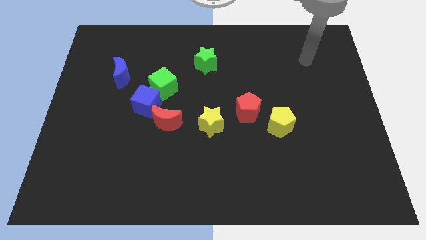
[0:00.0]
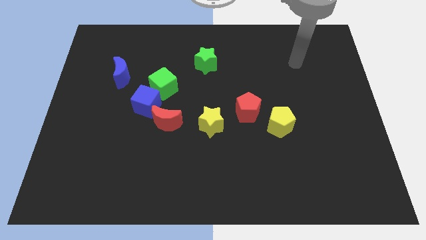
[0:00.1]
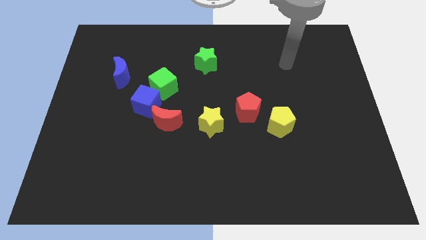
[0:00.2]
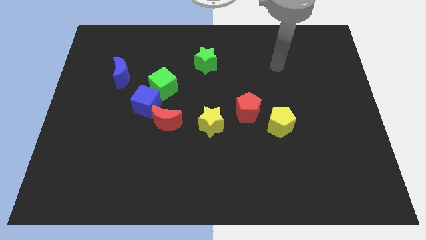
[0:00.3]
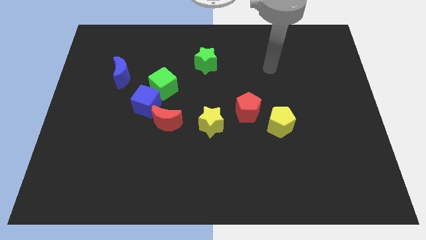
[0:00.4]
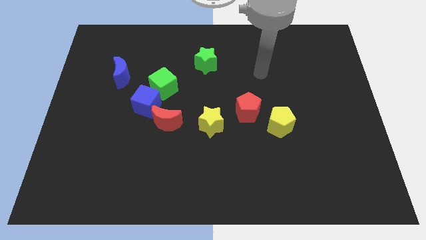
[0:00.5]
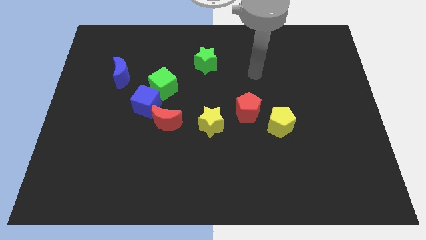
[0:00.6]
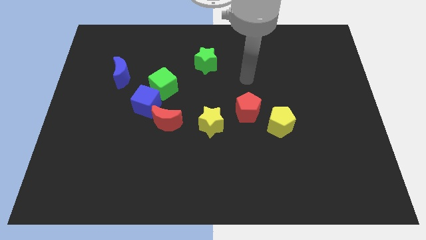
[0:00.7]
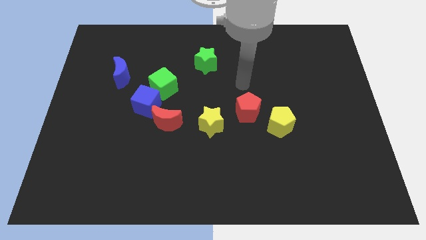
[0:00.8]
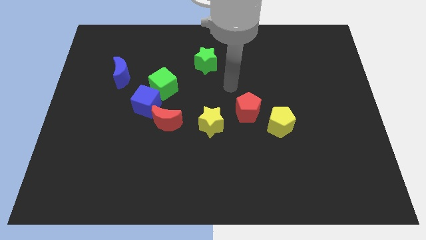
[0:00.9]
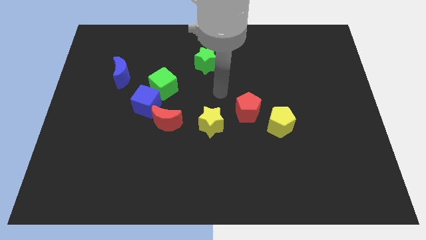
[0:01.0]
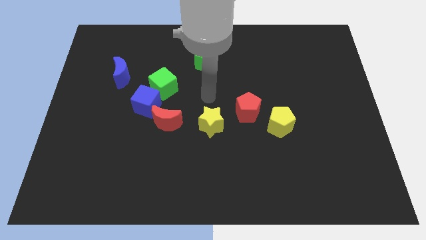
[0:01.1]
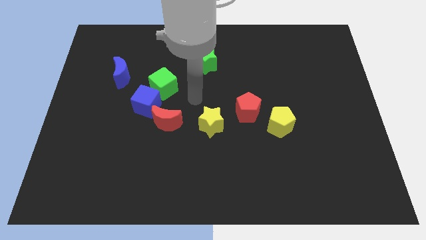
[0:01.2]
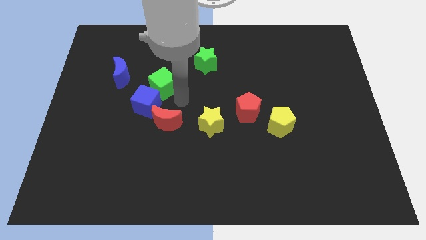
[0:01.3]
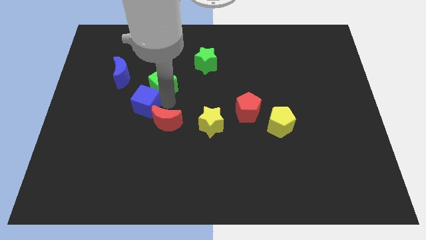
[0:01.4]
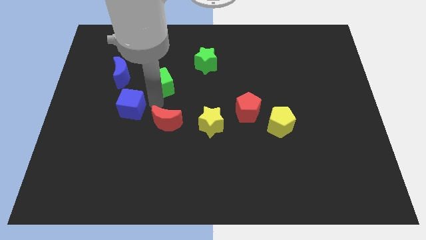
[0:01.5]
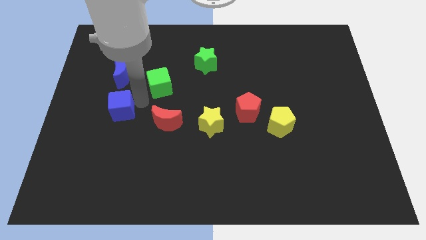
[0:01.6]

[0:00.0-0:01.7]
move the green cube away from the blue cube

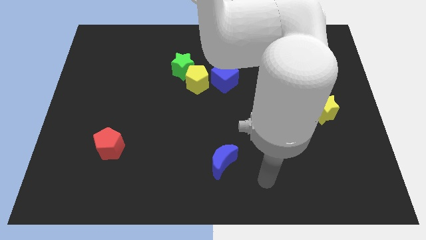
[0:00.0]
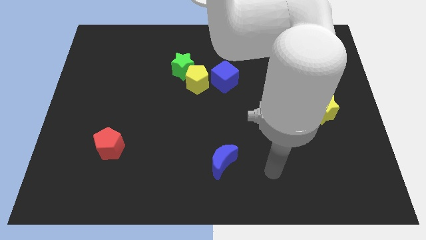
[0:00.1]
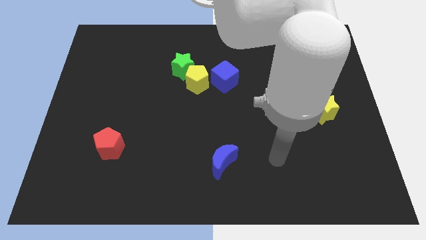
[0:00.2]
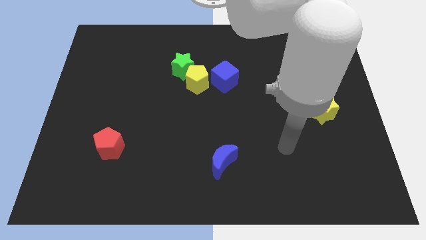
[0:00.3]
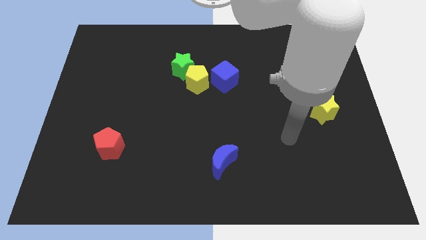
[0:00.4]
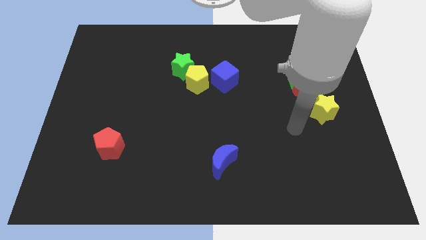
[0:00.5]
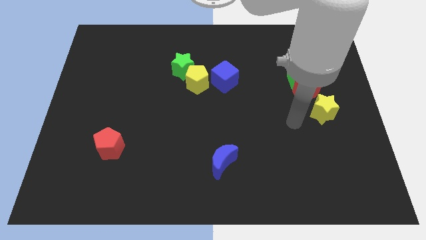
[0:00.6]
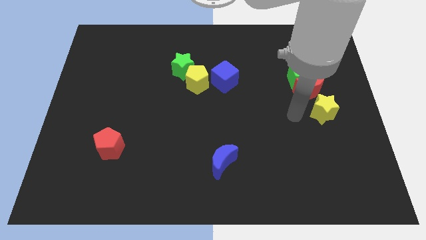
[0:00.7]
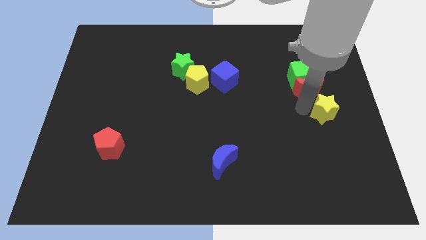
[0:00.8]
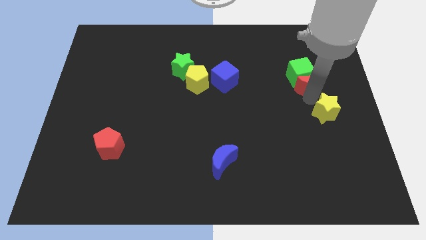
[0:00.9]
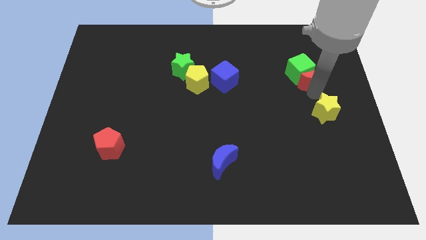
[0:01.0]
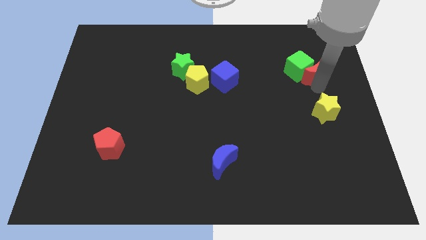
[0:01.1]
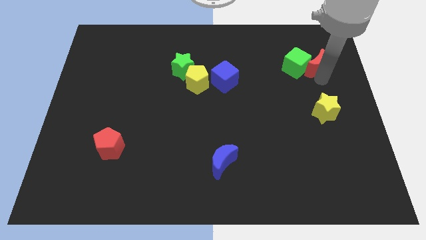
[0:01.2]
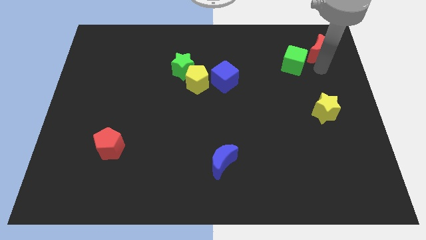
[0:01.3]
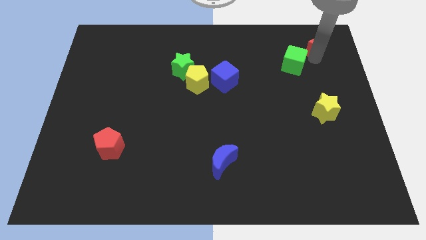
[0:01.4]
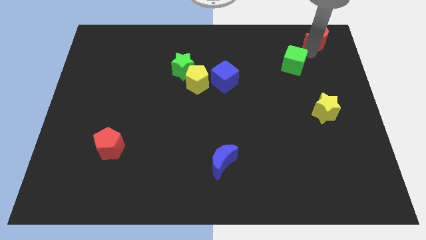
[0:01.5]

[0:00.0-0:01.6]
separate the green cube from the red moon

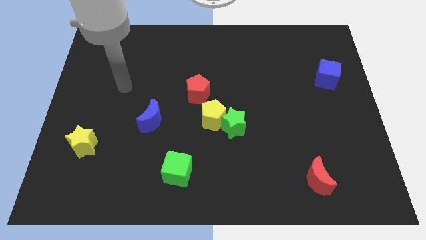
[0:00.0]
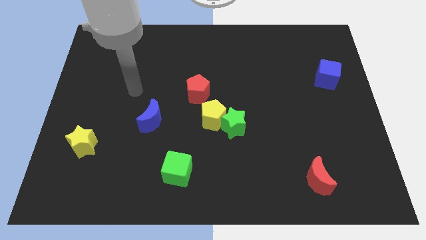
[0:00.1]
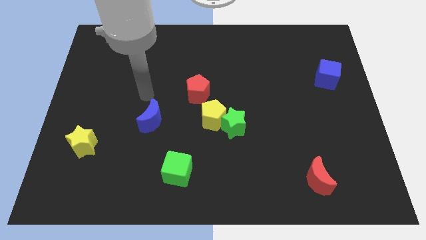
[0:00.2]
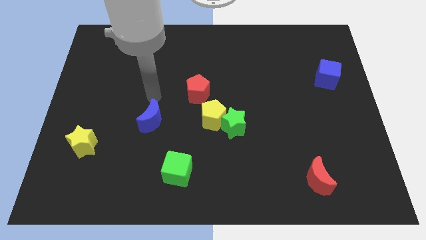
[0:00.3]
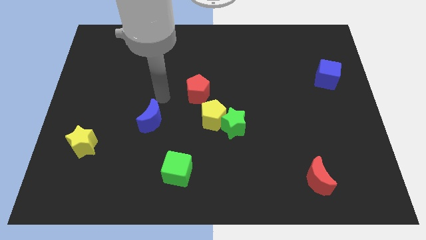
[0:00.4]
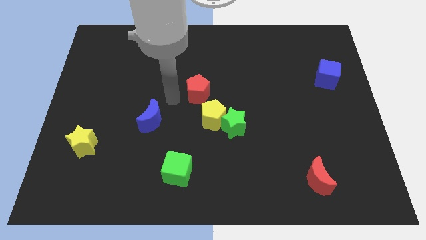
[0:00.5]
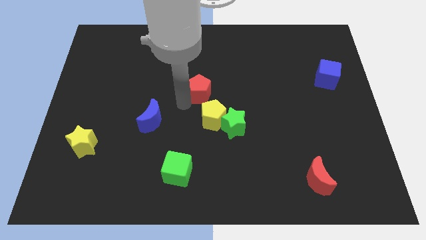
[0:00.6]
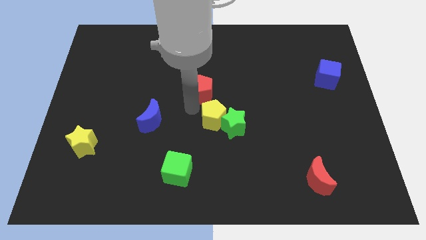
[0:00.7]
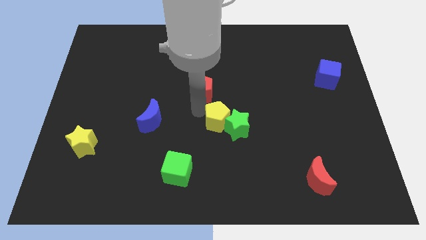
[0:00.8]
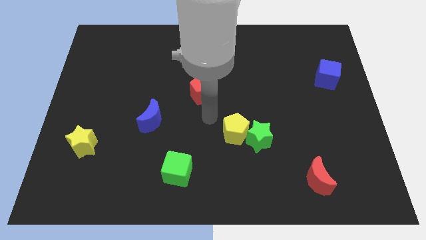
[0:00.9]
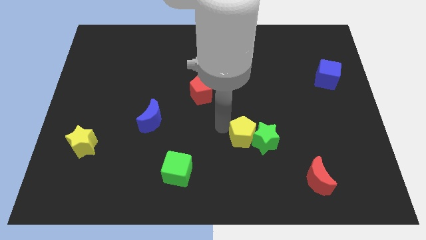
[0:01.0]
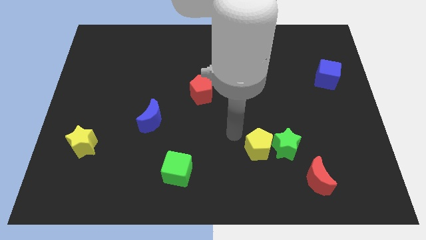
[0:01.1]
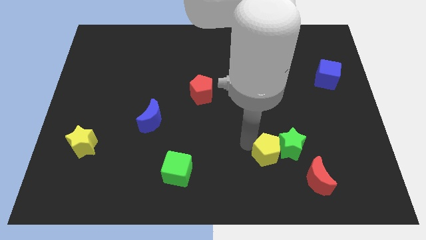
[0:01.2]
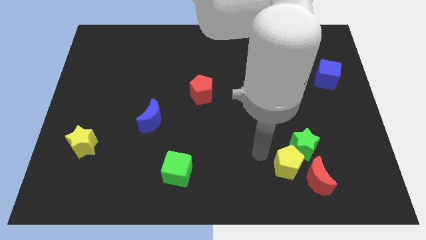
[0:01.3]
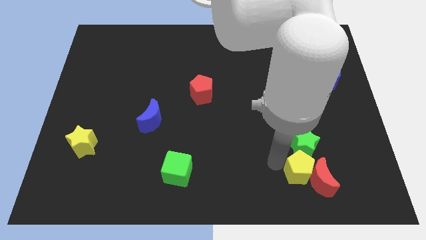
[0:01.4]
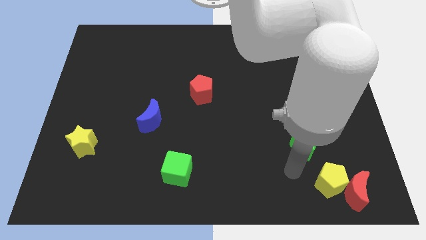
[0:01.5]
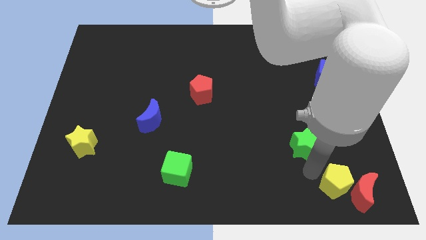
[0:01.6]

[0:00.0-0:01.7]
pull the green star apart from the yellow pentagon

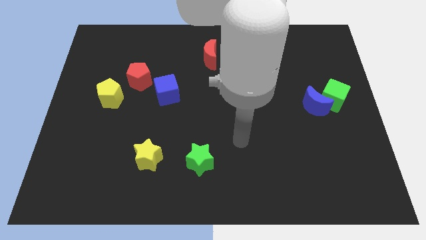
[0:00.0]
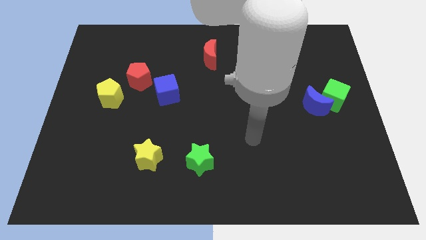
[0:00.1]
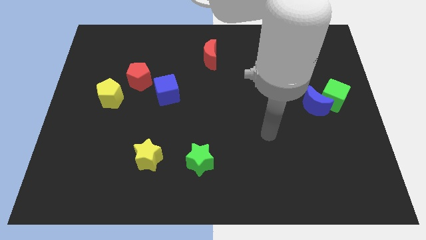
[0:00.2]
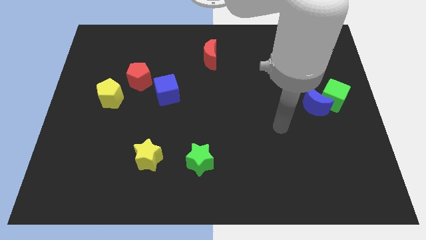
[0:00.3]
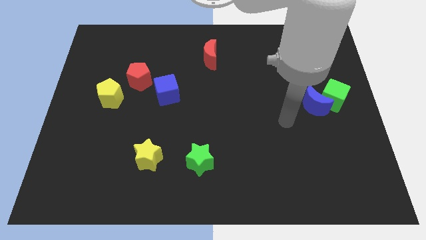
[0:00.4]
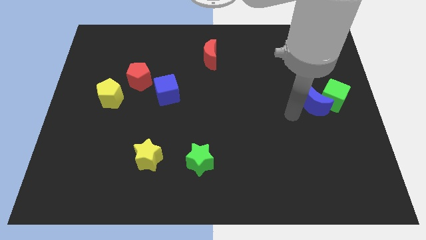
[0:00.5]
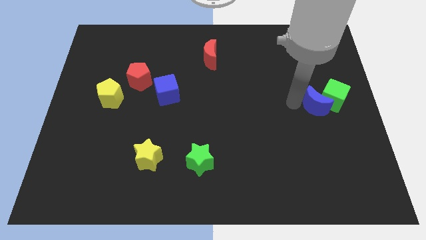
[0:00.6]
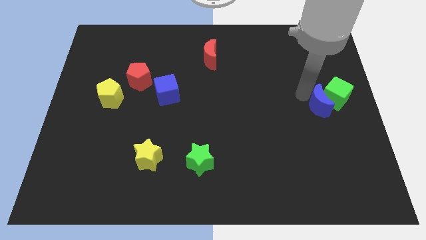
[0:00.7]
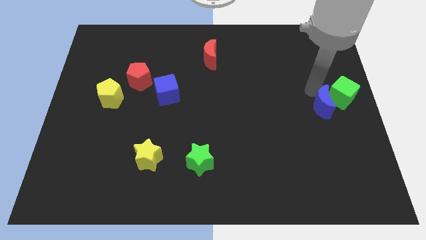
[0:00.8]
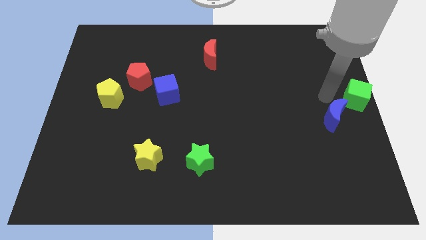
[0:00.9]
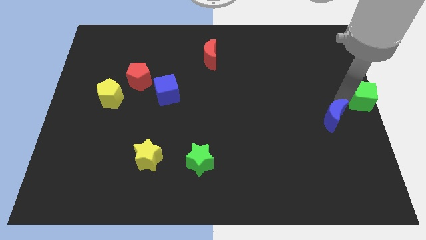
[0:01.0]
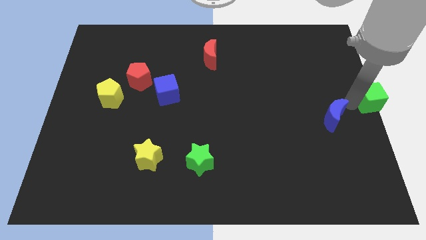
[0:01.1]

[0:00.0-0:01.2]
move the blue moon away from the green cube

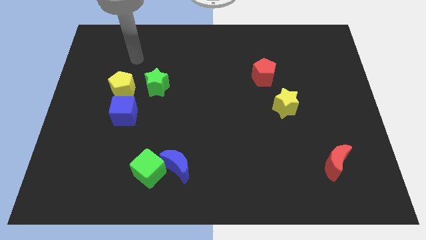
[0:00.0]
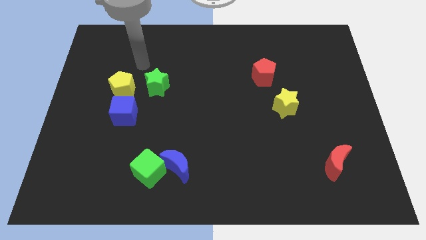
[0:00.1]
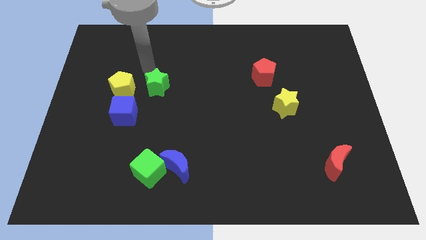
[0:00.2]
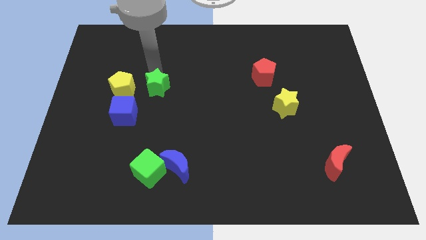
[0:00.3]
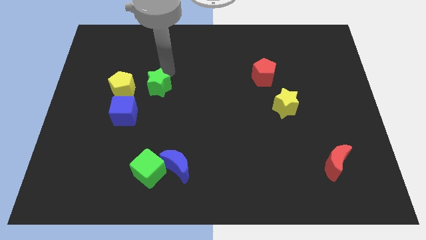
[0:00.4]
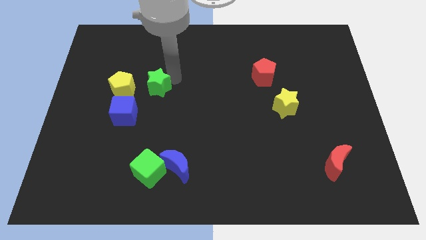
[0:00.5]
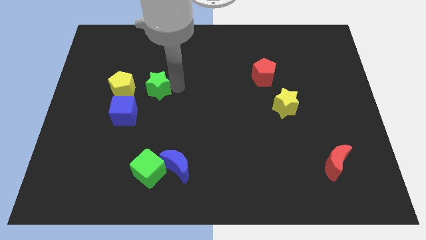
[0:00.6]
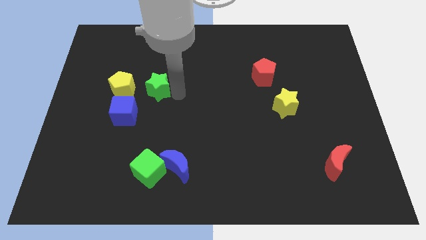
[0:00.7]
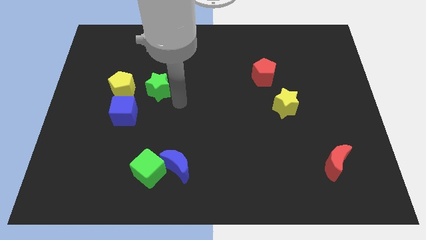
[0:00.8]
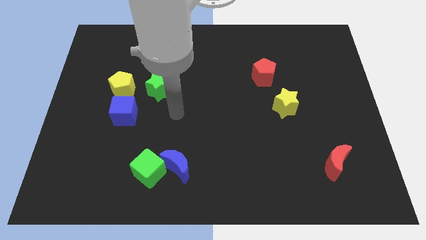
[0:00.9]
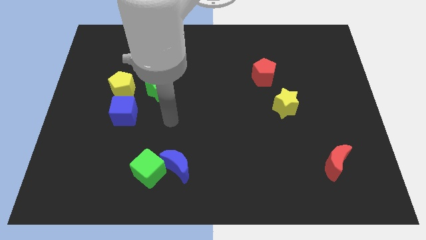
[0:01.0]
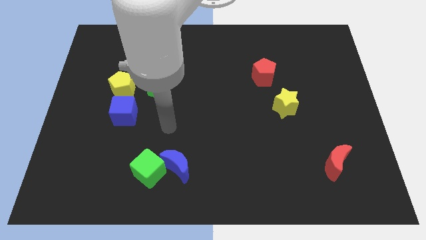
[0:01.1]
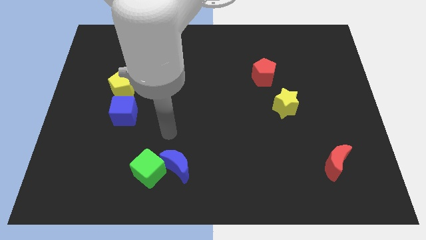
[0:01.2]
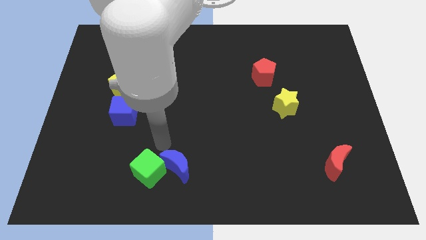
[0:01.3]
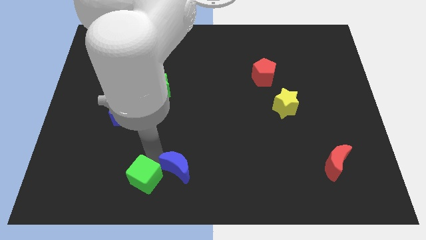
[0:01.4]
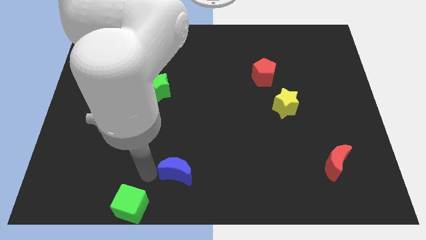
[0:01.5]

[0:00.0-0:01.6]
separate the blue moon from the green cube

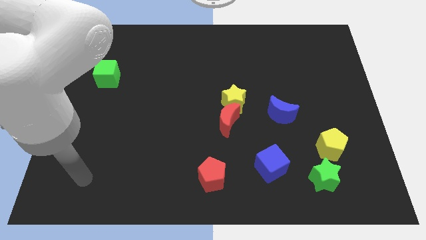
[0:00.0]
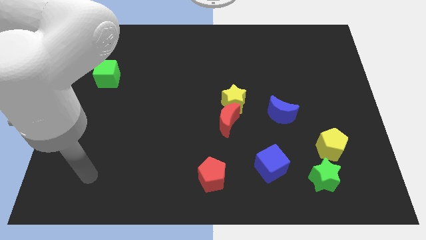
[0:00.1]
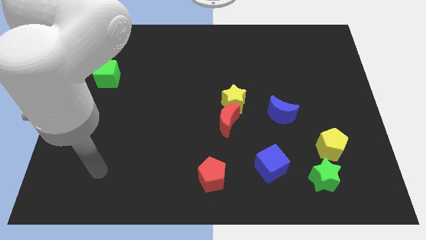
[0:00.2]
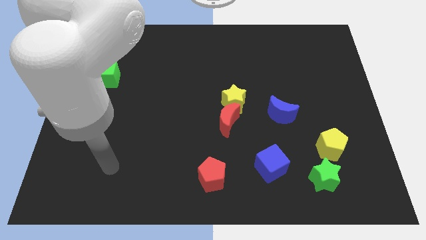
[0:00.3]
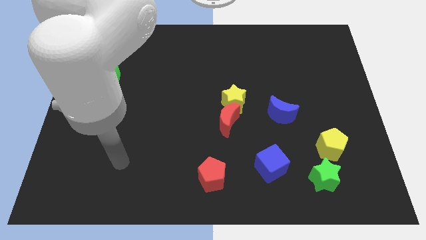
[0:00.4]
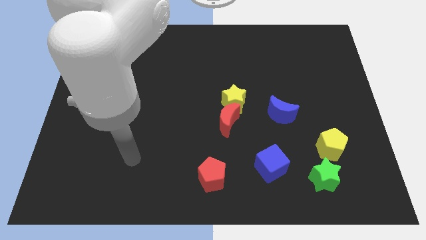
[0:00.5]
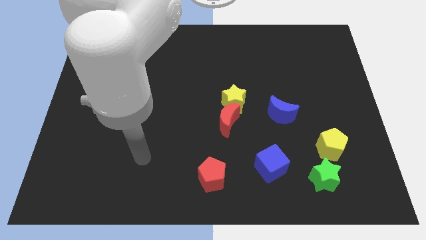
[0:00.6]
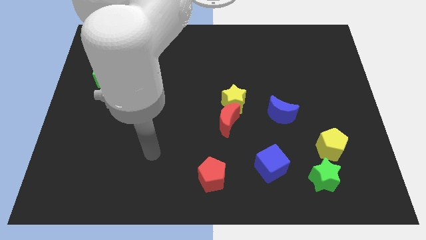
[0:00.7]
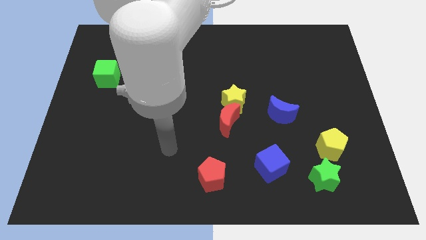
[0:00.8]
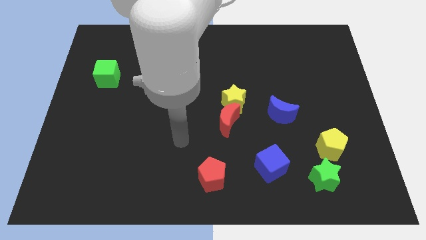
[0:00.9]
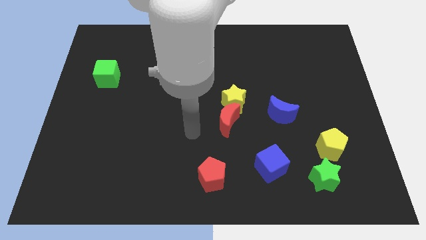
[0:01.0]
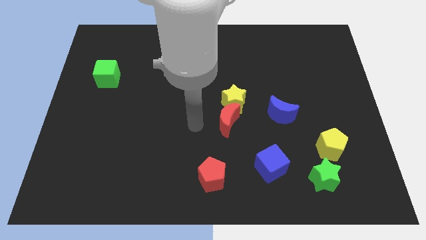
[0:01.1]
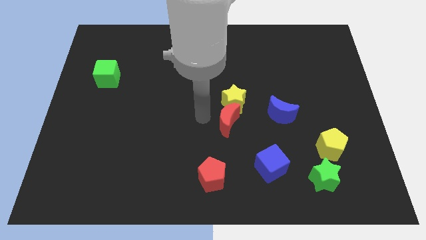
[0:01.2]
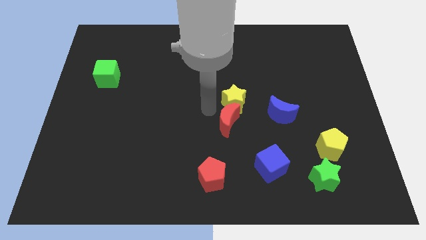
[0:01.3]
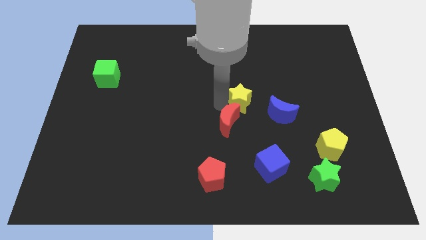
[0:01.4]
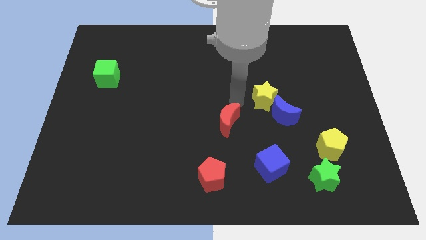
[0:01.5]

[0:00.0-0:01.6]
move the red moon away from the yellow star
